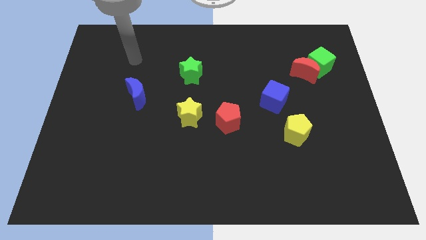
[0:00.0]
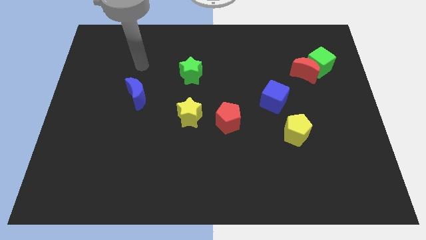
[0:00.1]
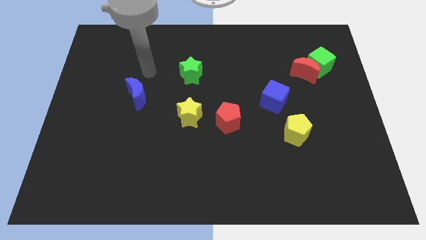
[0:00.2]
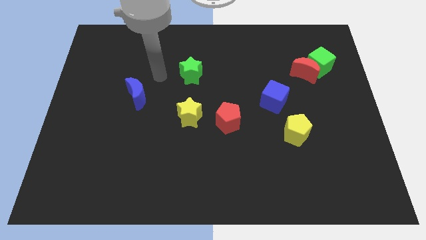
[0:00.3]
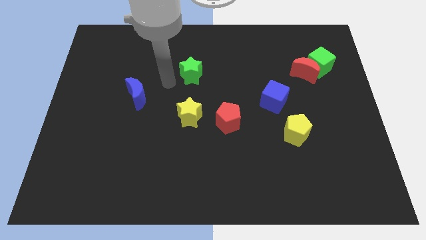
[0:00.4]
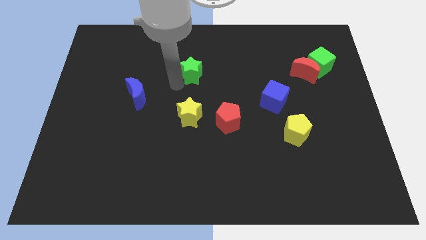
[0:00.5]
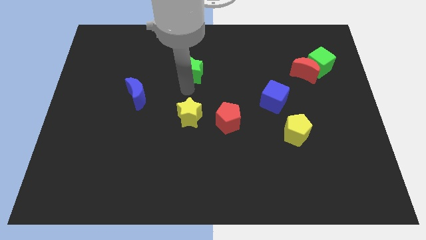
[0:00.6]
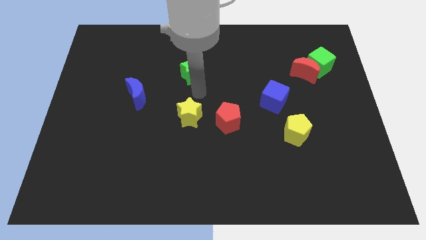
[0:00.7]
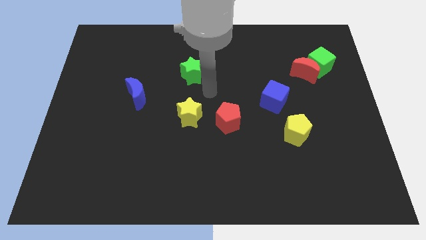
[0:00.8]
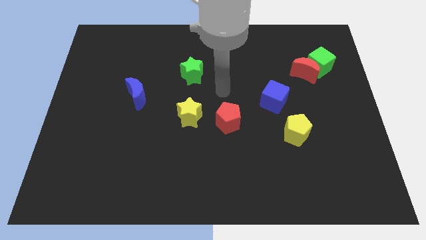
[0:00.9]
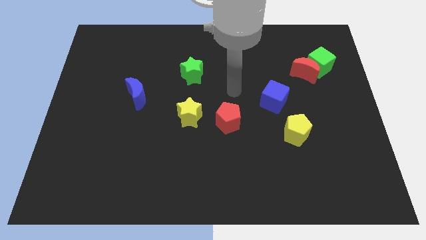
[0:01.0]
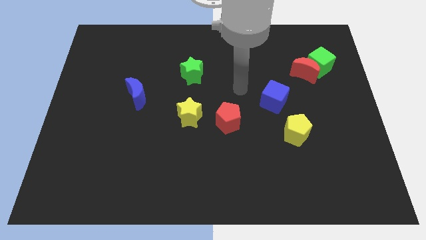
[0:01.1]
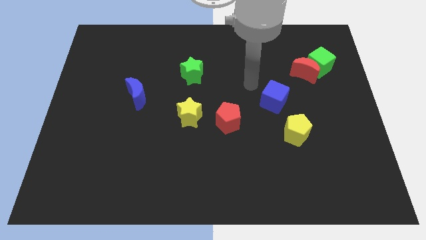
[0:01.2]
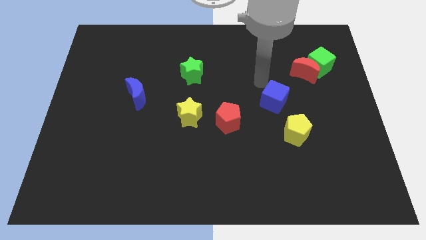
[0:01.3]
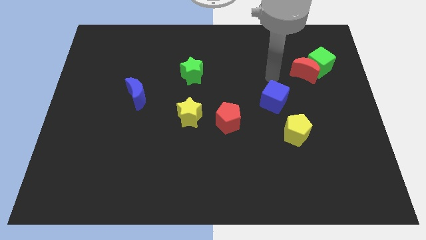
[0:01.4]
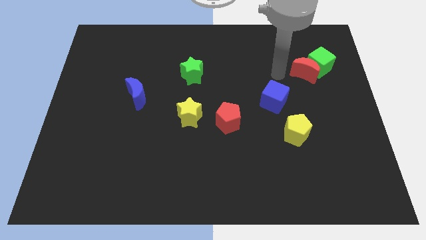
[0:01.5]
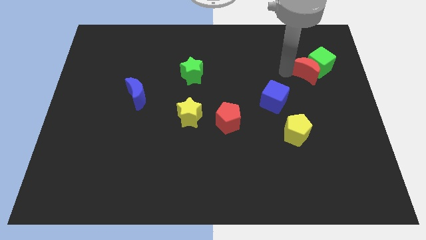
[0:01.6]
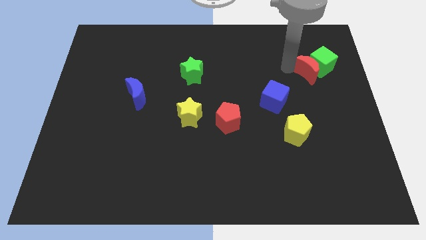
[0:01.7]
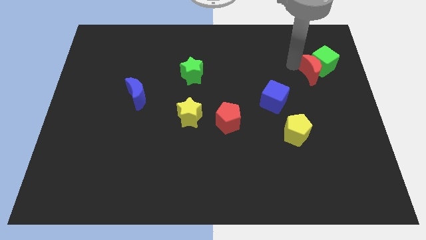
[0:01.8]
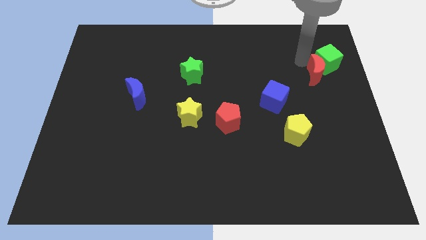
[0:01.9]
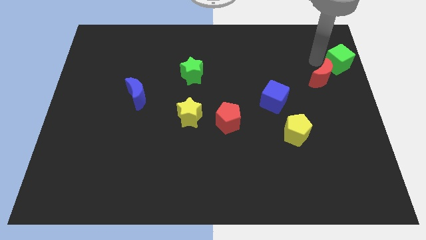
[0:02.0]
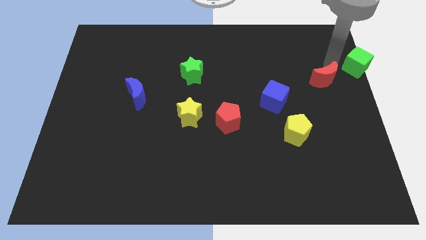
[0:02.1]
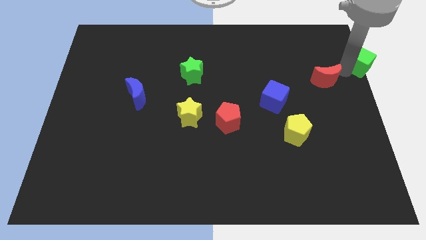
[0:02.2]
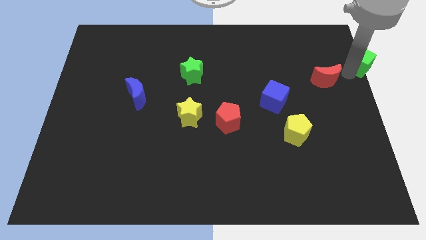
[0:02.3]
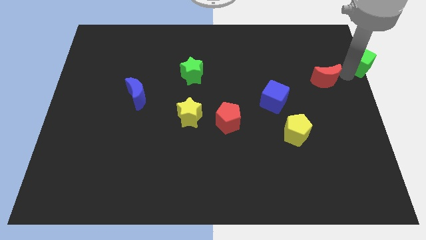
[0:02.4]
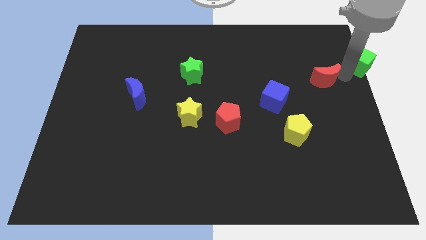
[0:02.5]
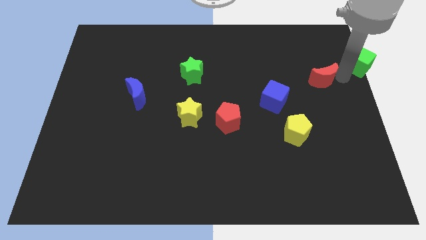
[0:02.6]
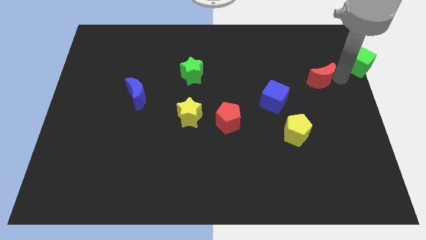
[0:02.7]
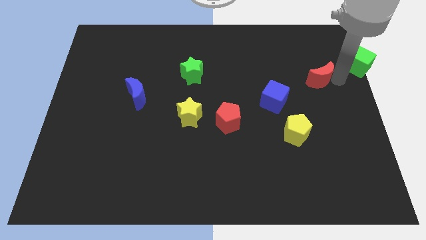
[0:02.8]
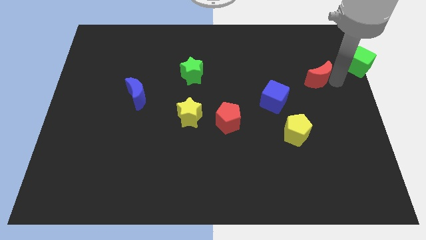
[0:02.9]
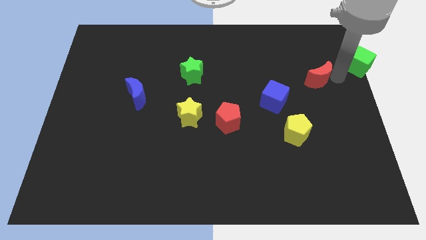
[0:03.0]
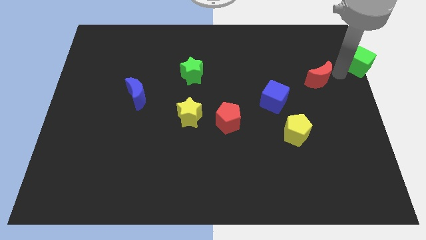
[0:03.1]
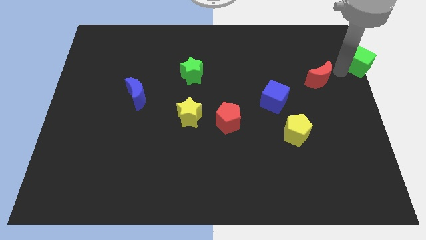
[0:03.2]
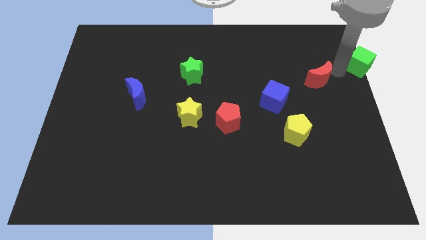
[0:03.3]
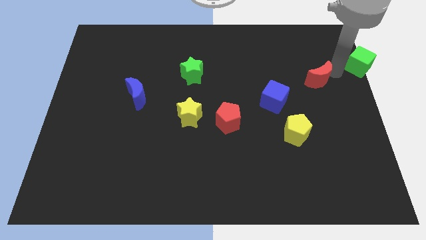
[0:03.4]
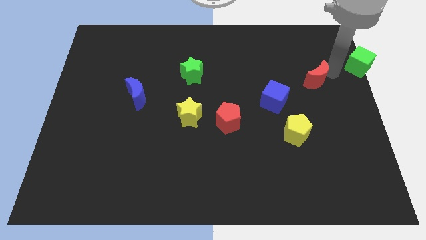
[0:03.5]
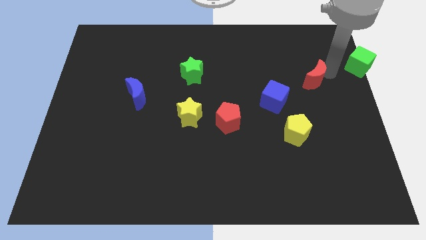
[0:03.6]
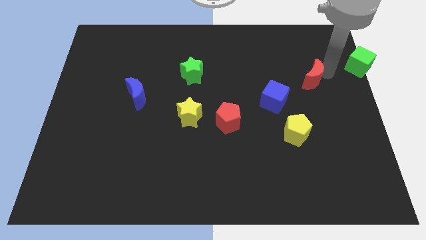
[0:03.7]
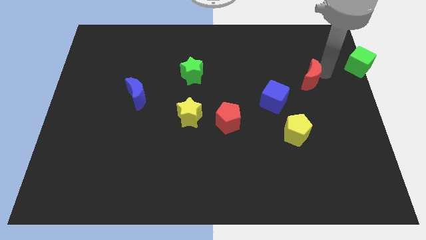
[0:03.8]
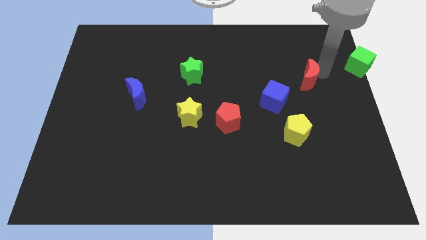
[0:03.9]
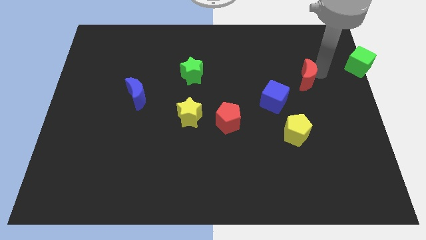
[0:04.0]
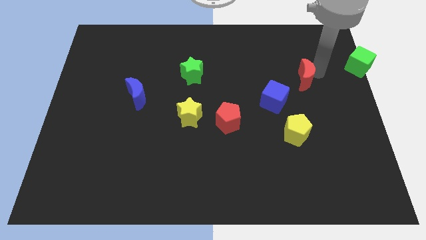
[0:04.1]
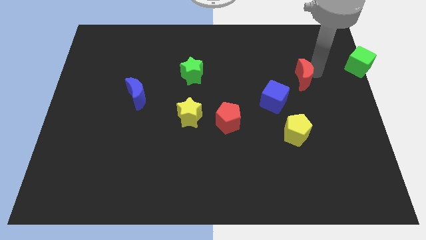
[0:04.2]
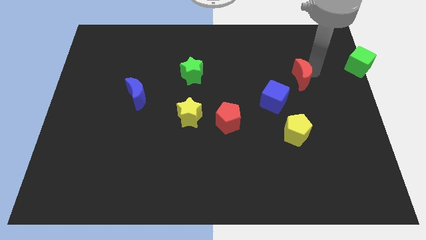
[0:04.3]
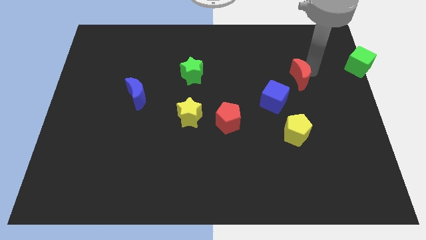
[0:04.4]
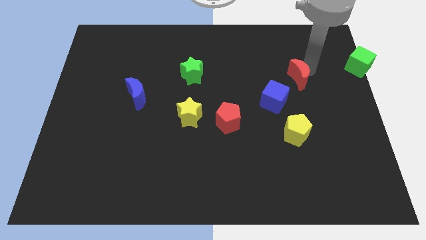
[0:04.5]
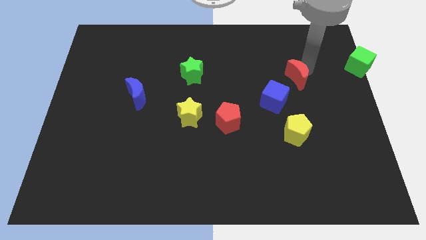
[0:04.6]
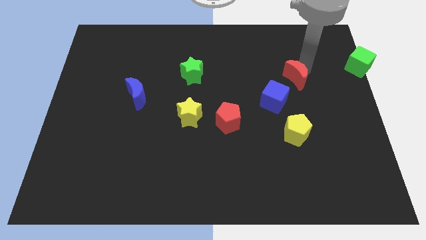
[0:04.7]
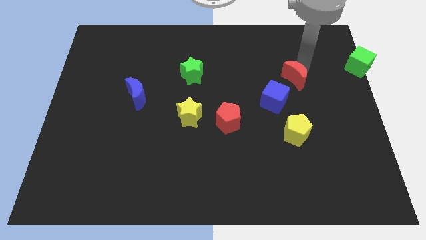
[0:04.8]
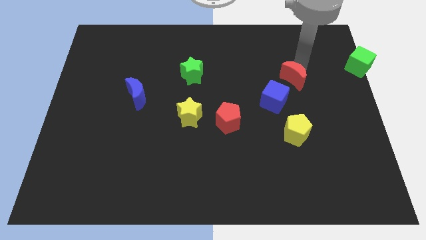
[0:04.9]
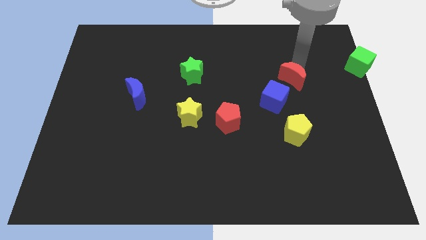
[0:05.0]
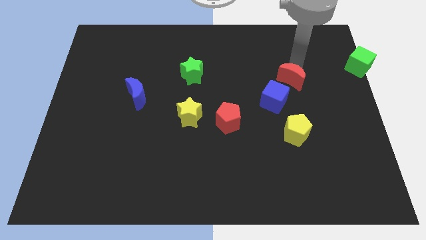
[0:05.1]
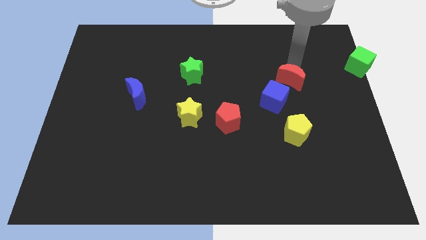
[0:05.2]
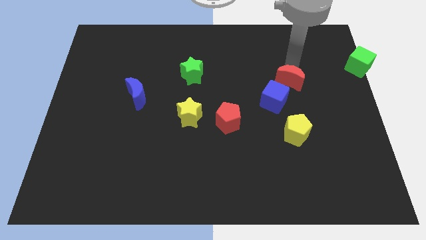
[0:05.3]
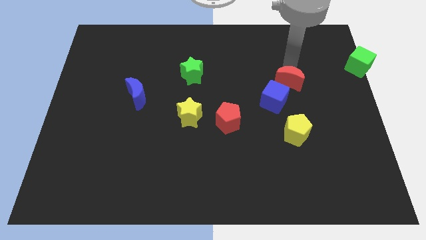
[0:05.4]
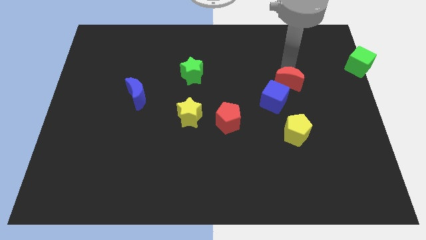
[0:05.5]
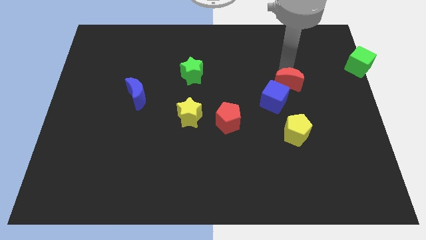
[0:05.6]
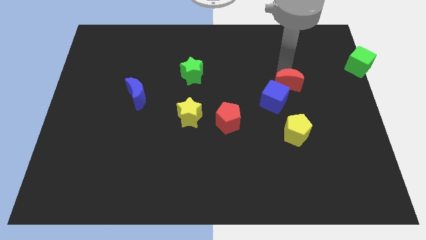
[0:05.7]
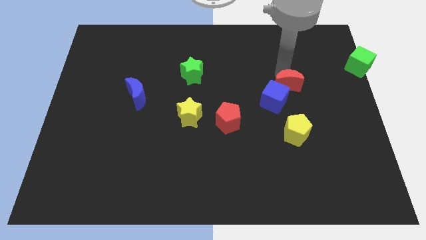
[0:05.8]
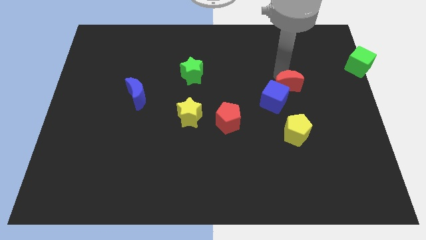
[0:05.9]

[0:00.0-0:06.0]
move the red moon diagonally down and to the left a bit

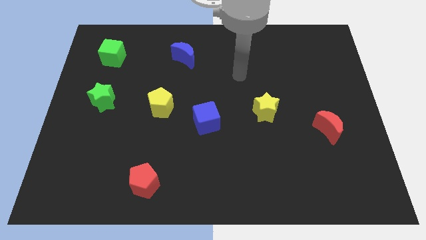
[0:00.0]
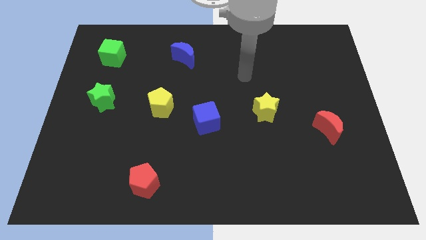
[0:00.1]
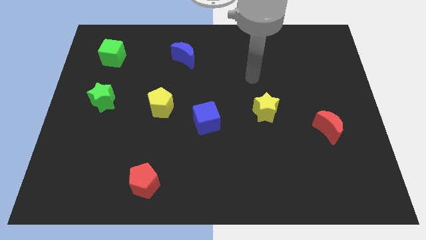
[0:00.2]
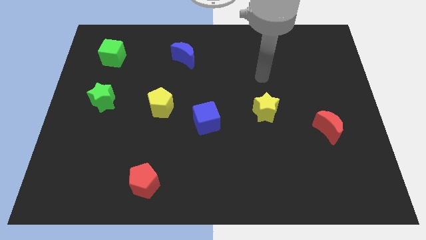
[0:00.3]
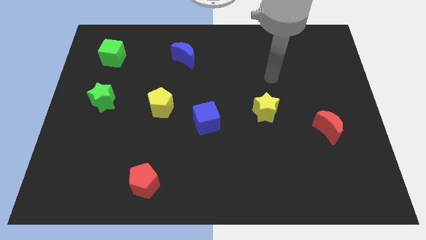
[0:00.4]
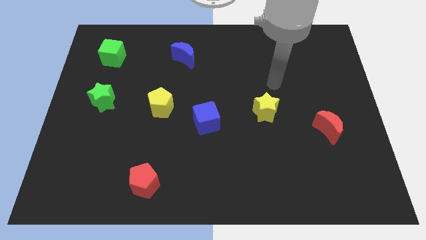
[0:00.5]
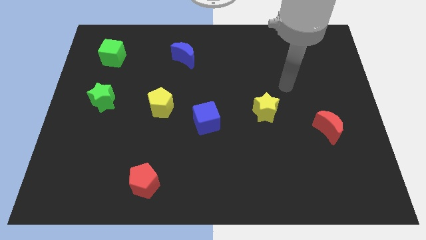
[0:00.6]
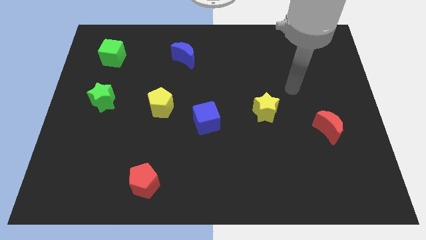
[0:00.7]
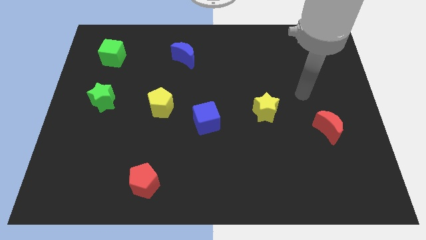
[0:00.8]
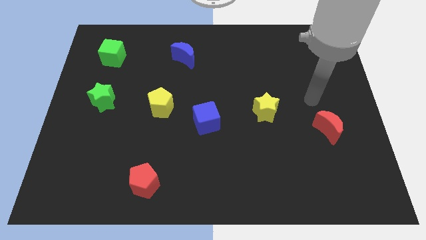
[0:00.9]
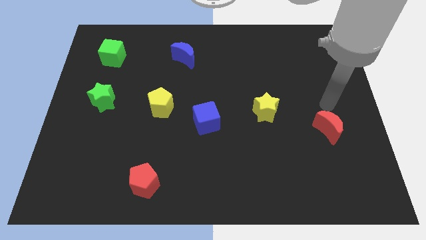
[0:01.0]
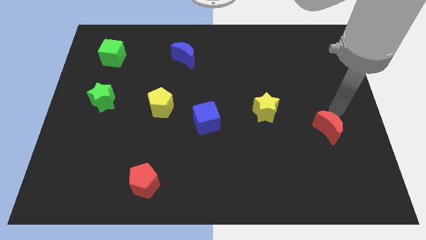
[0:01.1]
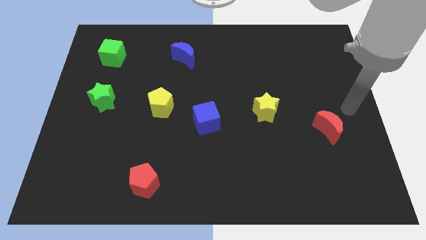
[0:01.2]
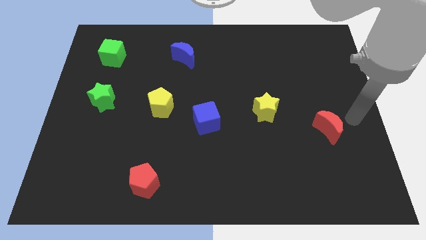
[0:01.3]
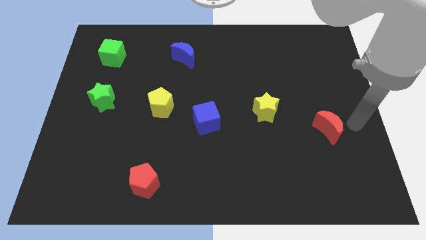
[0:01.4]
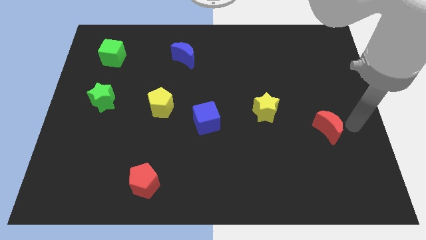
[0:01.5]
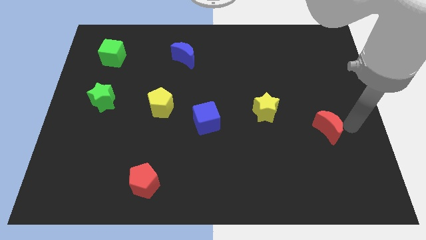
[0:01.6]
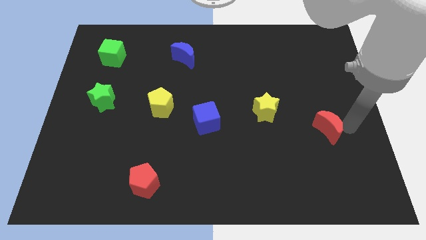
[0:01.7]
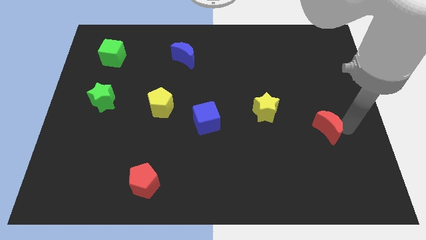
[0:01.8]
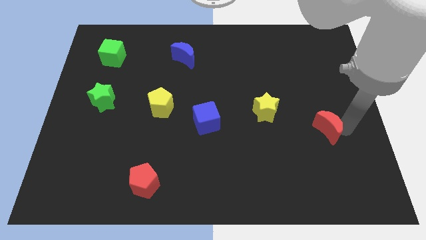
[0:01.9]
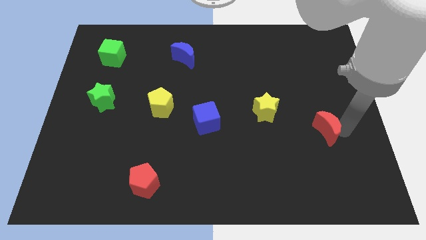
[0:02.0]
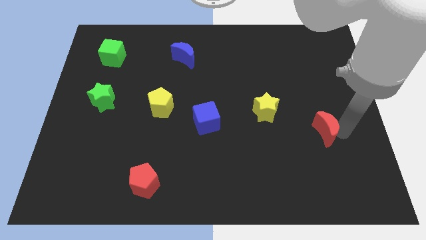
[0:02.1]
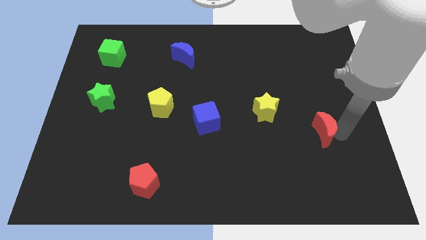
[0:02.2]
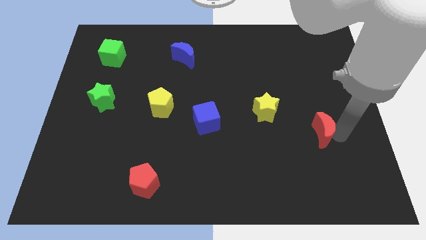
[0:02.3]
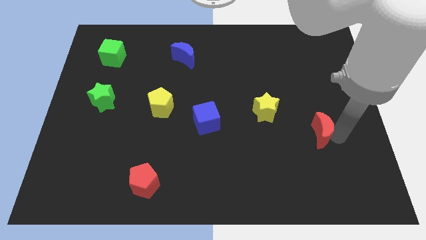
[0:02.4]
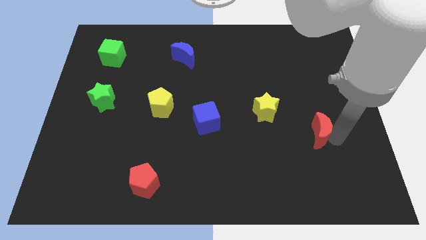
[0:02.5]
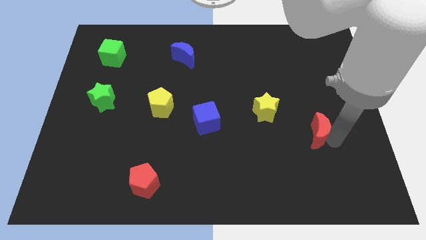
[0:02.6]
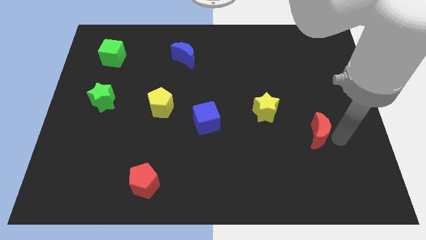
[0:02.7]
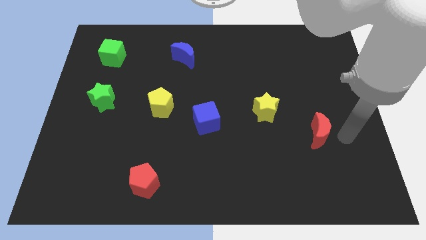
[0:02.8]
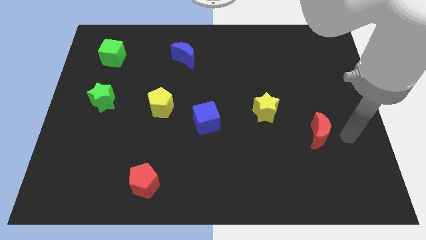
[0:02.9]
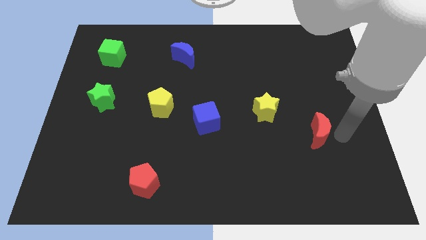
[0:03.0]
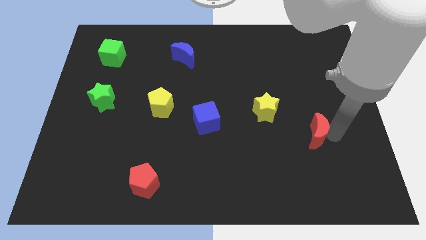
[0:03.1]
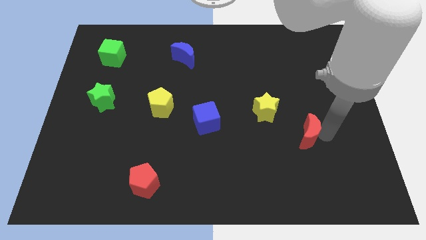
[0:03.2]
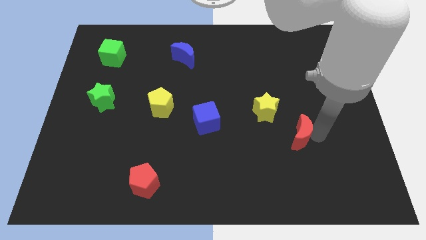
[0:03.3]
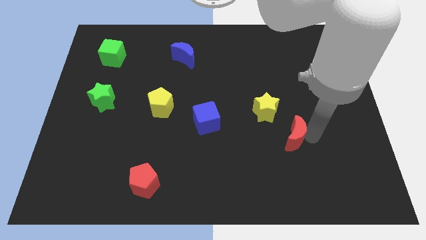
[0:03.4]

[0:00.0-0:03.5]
slide the red moon slightly to the left
